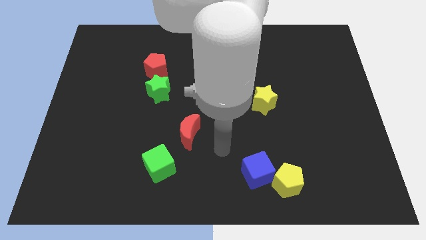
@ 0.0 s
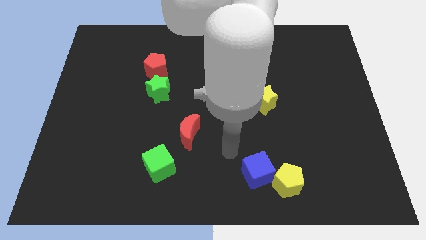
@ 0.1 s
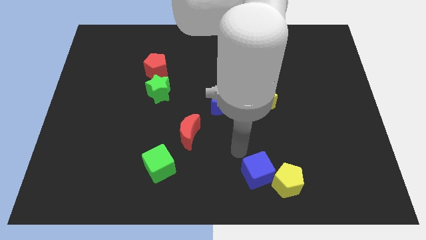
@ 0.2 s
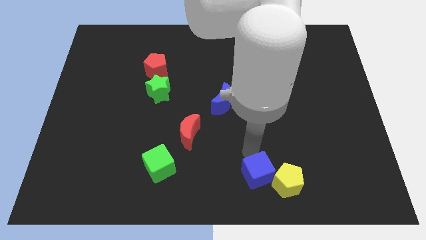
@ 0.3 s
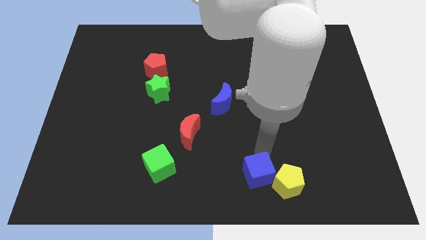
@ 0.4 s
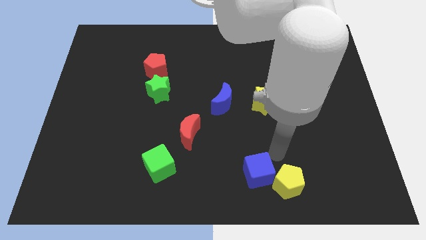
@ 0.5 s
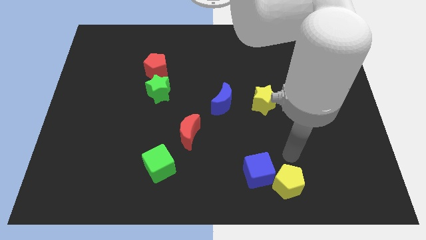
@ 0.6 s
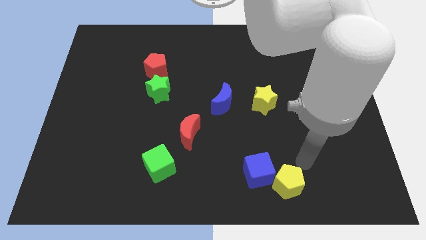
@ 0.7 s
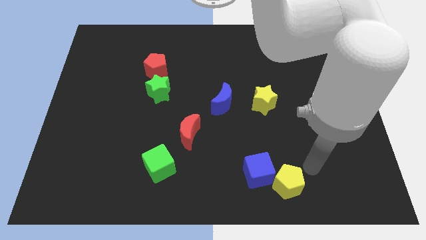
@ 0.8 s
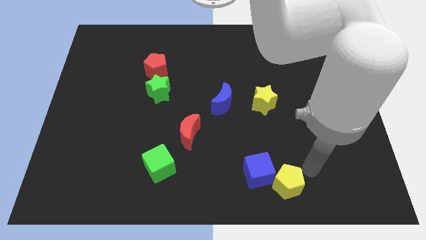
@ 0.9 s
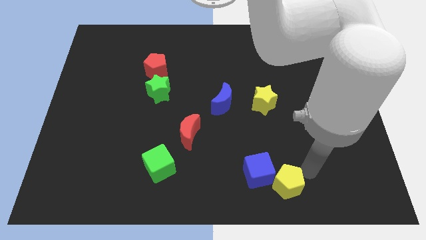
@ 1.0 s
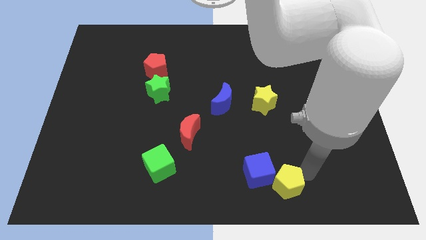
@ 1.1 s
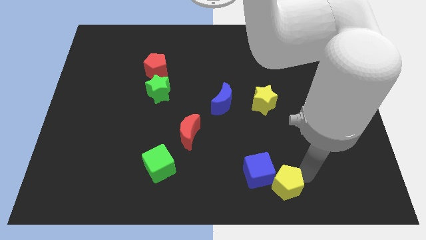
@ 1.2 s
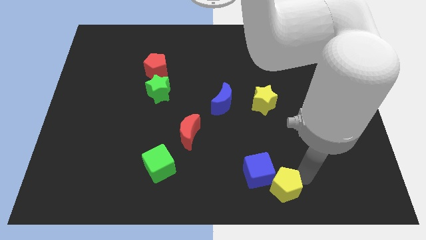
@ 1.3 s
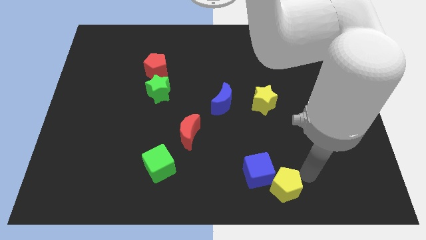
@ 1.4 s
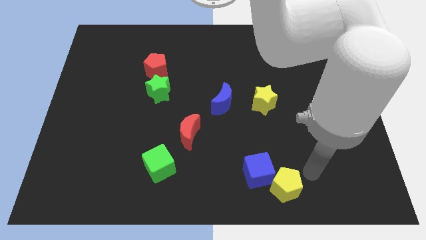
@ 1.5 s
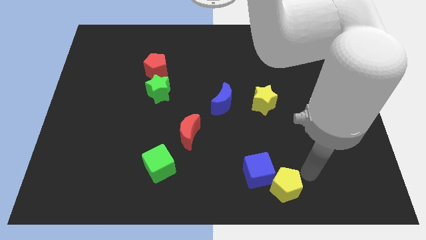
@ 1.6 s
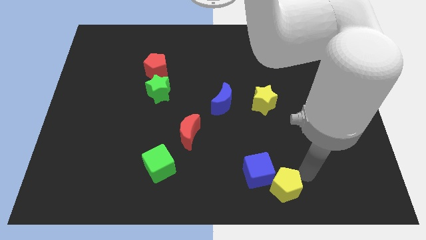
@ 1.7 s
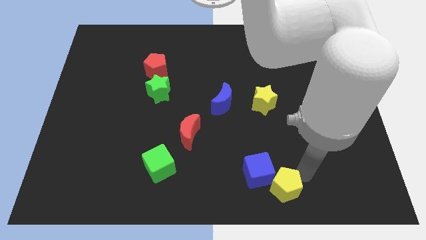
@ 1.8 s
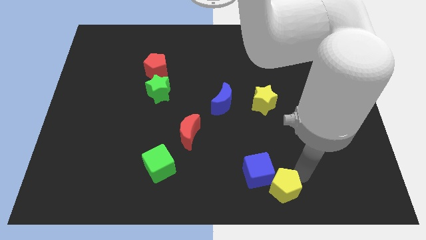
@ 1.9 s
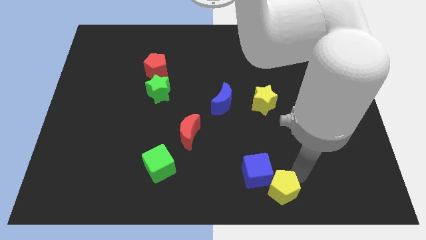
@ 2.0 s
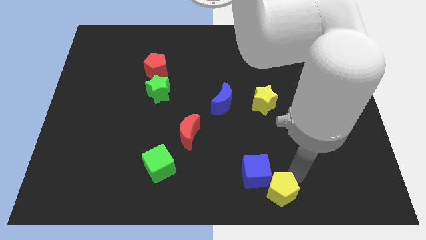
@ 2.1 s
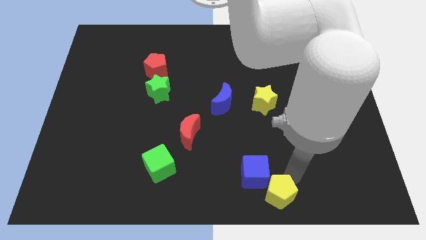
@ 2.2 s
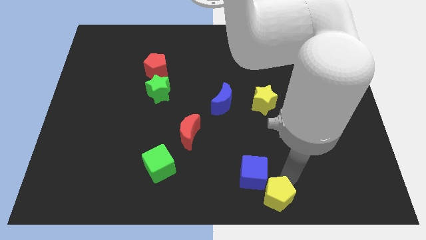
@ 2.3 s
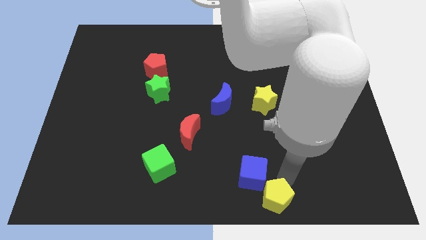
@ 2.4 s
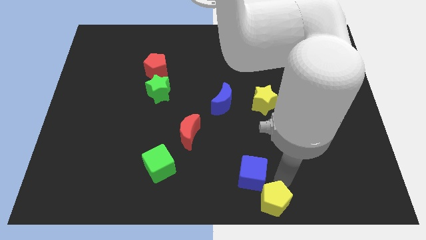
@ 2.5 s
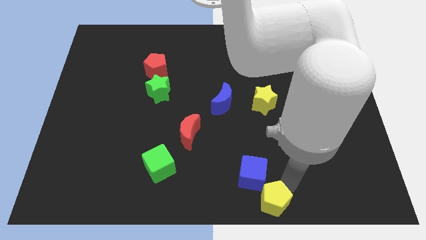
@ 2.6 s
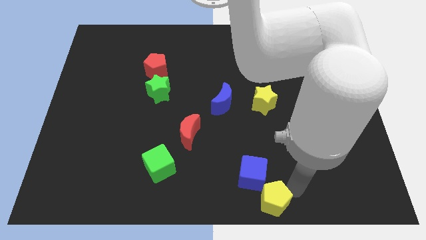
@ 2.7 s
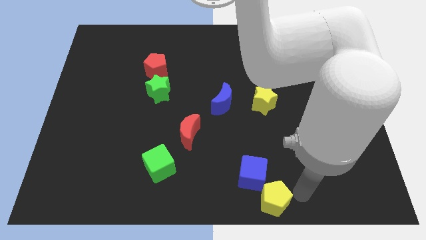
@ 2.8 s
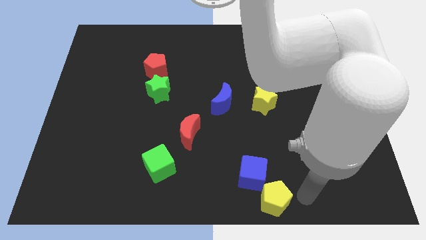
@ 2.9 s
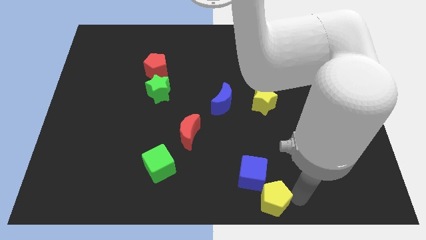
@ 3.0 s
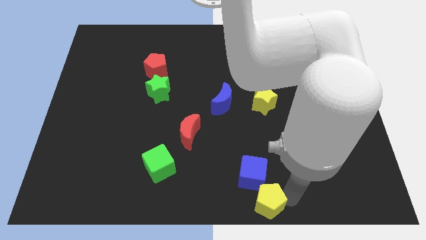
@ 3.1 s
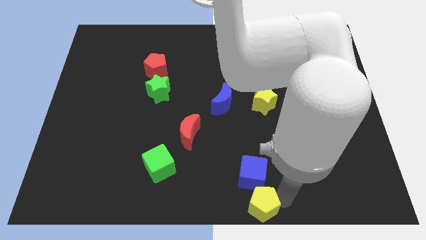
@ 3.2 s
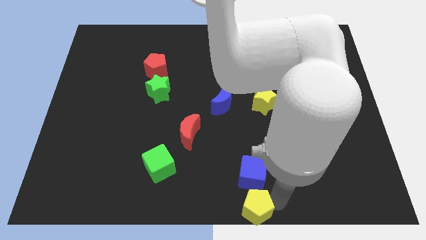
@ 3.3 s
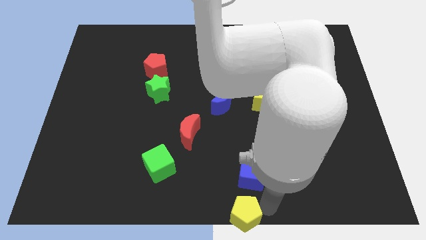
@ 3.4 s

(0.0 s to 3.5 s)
move the yellow pentagon left a little bit

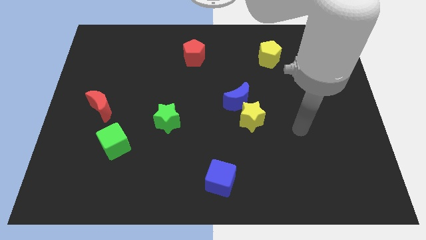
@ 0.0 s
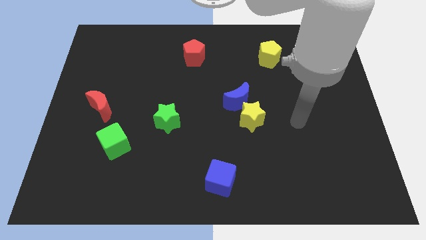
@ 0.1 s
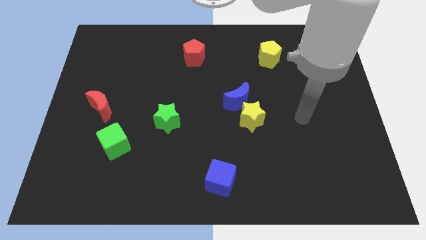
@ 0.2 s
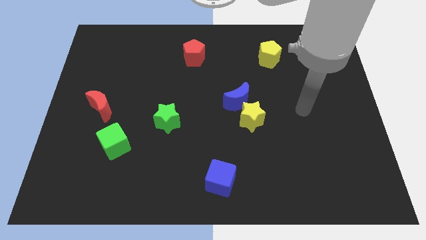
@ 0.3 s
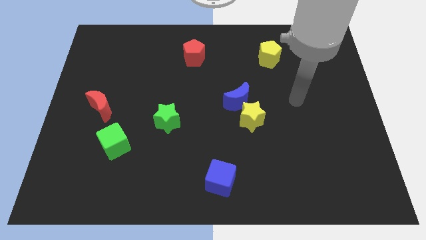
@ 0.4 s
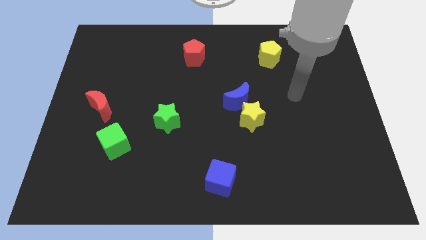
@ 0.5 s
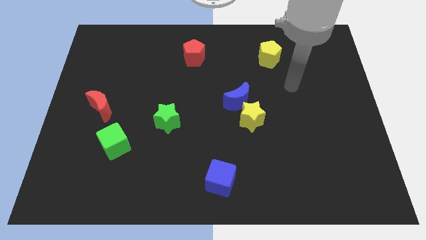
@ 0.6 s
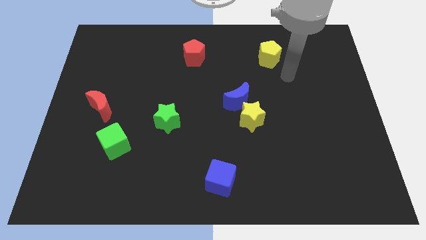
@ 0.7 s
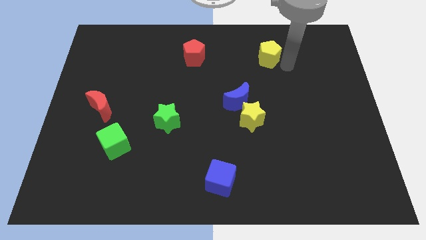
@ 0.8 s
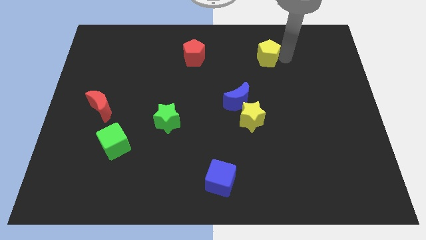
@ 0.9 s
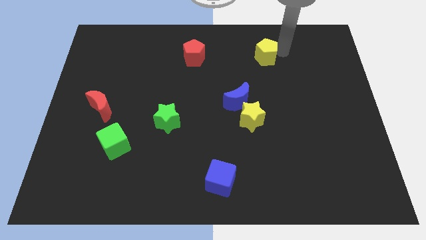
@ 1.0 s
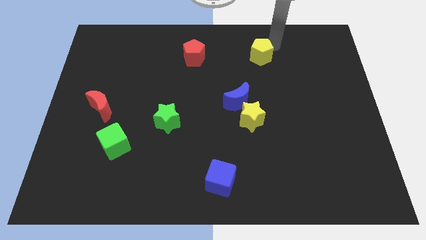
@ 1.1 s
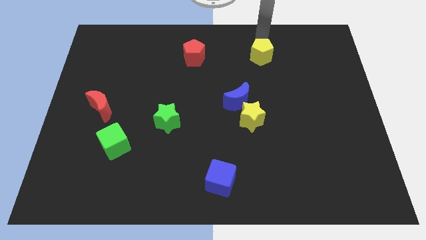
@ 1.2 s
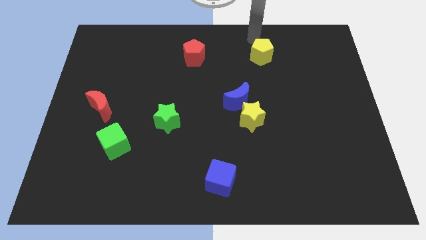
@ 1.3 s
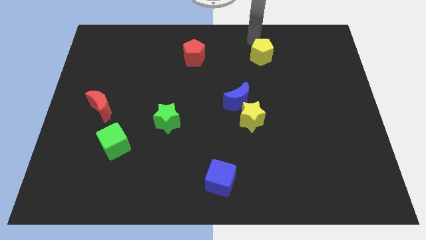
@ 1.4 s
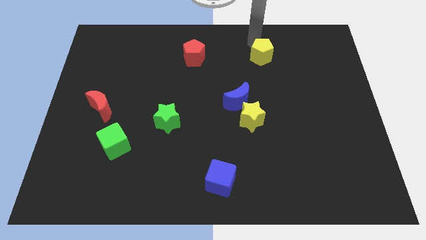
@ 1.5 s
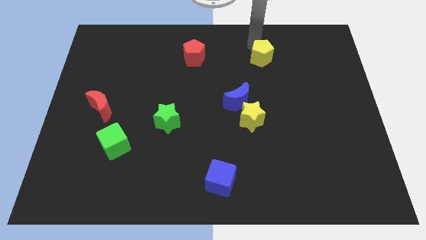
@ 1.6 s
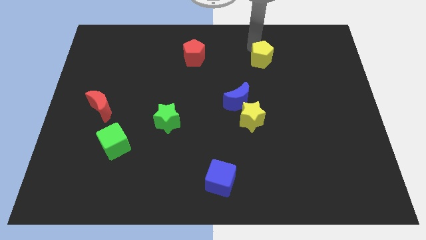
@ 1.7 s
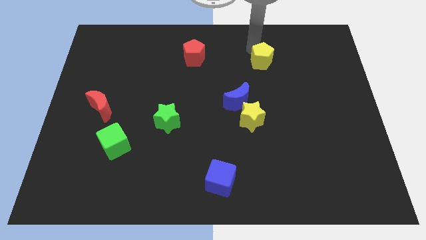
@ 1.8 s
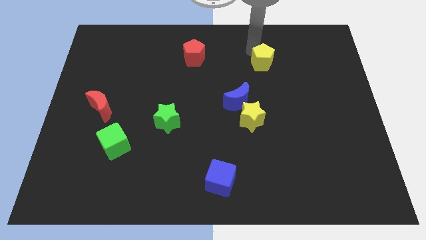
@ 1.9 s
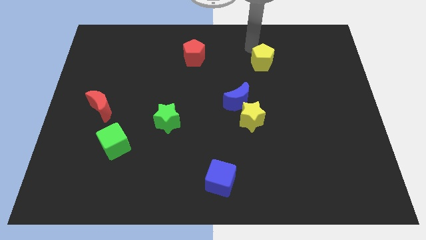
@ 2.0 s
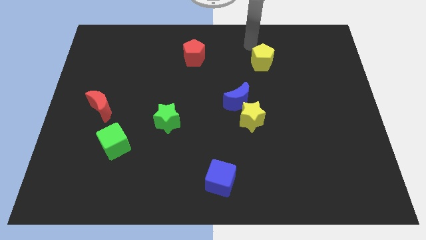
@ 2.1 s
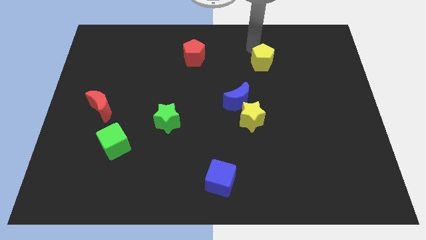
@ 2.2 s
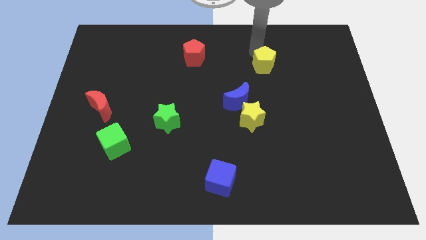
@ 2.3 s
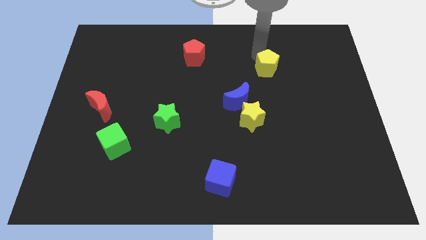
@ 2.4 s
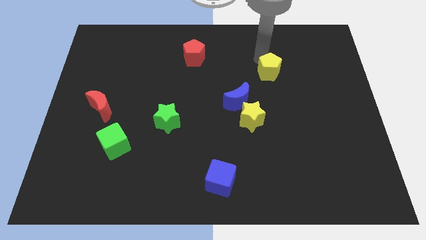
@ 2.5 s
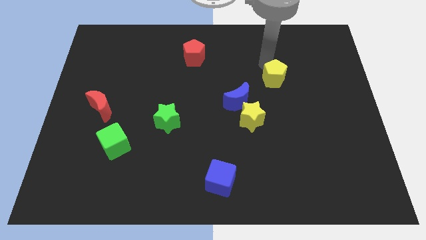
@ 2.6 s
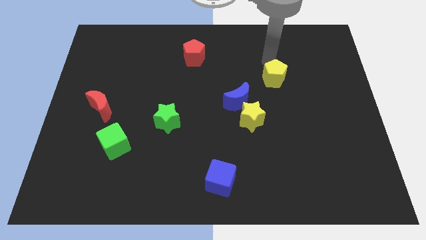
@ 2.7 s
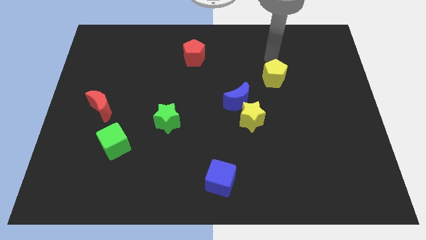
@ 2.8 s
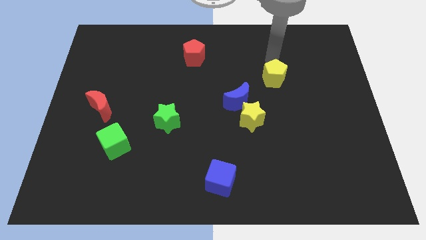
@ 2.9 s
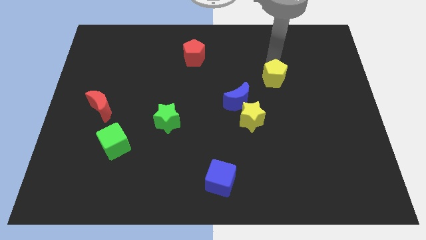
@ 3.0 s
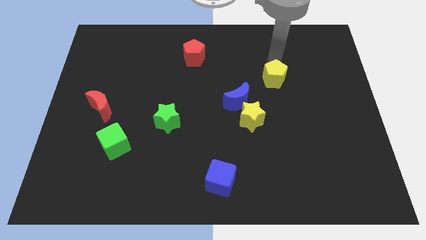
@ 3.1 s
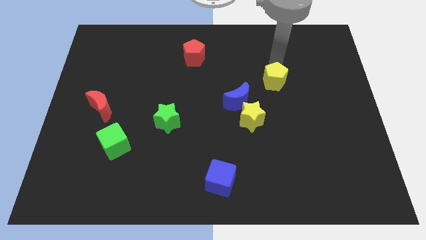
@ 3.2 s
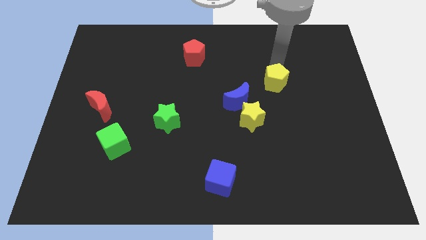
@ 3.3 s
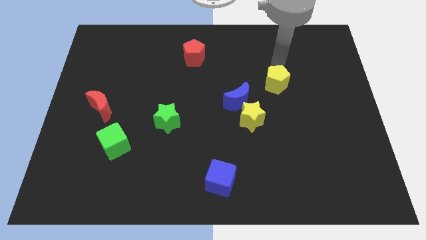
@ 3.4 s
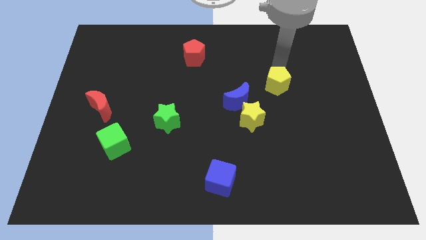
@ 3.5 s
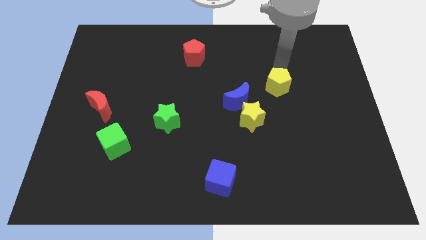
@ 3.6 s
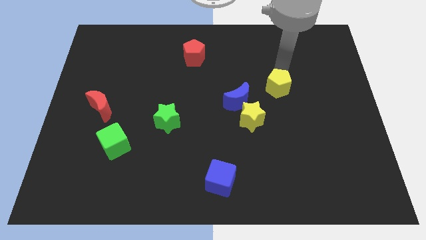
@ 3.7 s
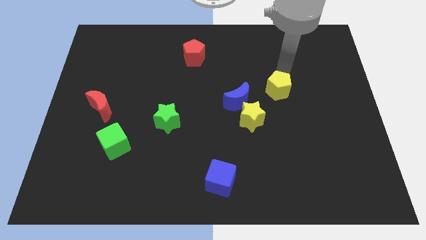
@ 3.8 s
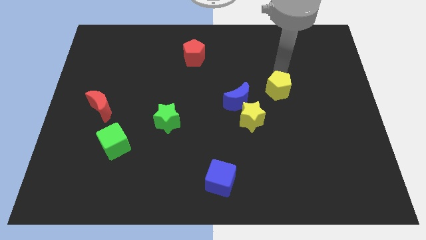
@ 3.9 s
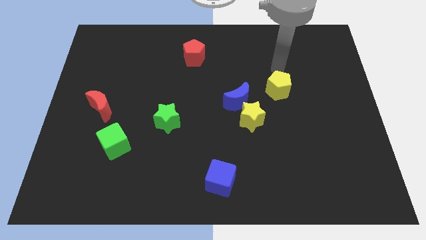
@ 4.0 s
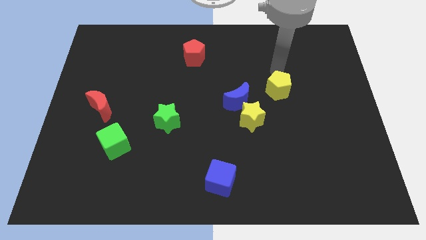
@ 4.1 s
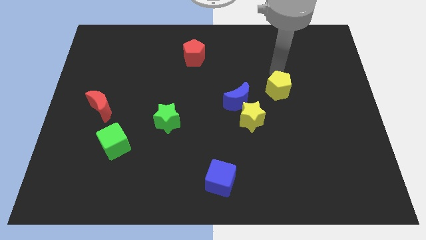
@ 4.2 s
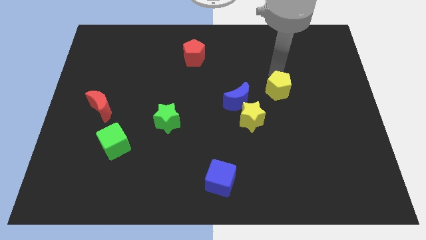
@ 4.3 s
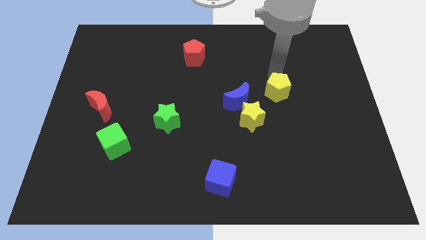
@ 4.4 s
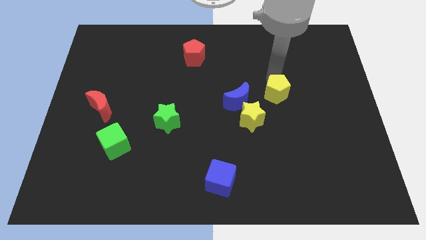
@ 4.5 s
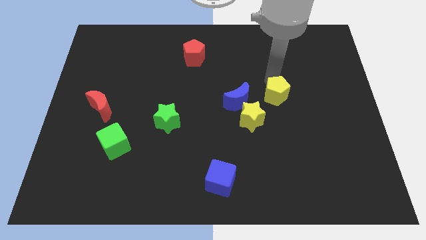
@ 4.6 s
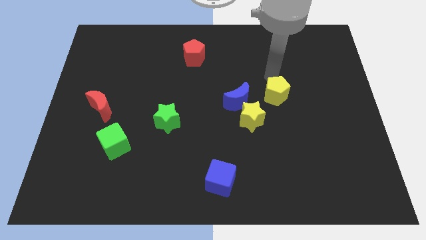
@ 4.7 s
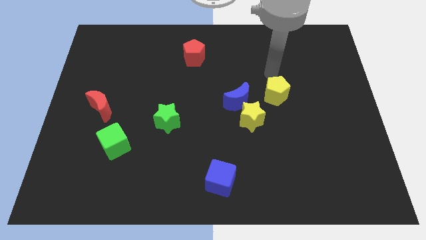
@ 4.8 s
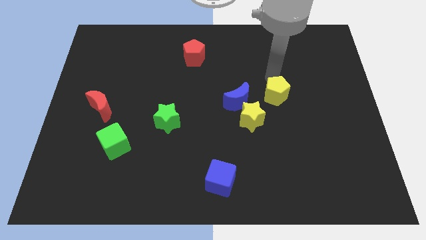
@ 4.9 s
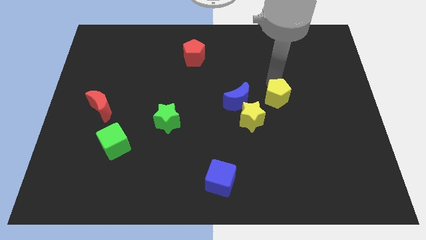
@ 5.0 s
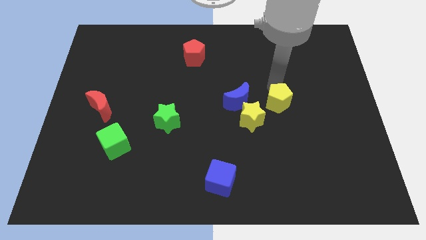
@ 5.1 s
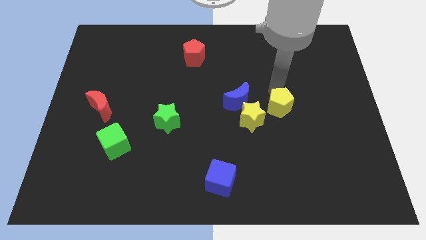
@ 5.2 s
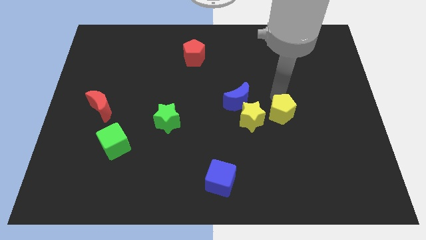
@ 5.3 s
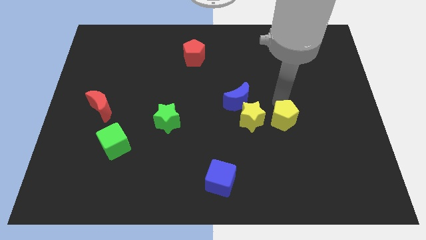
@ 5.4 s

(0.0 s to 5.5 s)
move the yellow pentagon downwards
